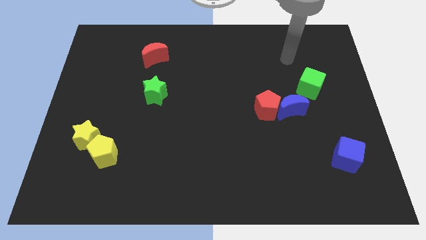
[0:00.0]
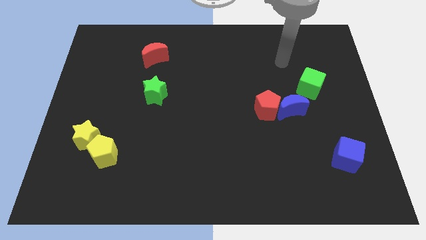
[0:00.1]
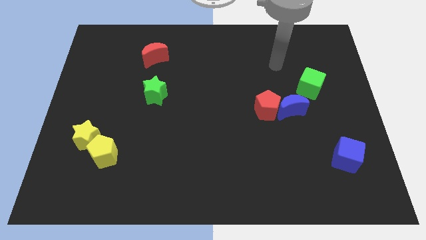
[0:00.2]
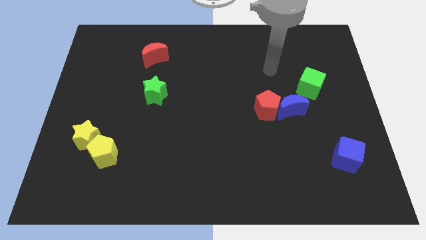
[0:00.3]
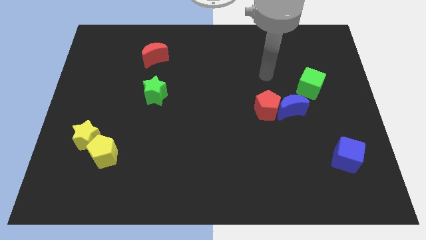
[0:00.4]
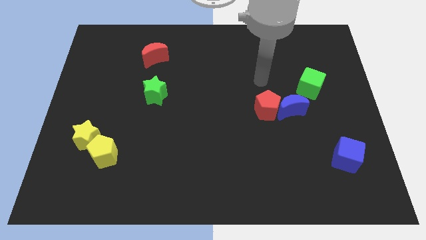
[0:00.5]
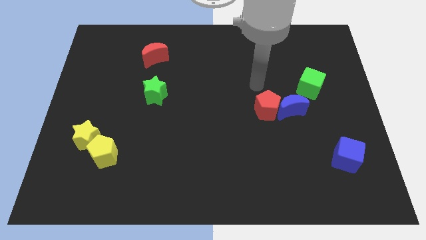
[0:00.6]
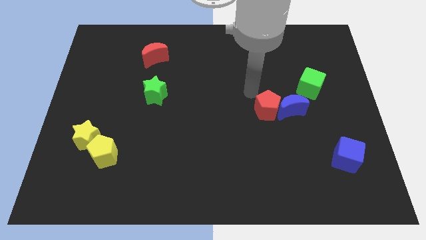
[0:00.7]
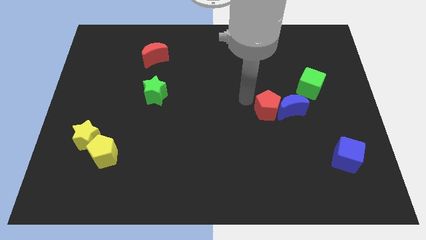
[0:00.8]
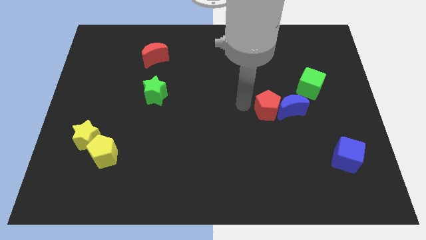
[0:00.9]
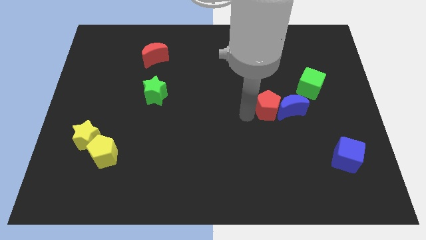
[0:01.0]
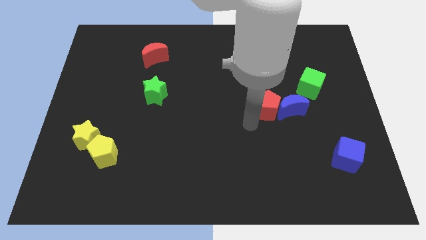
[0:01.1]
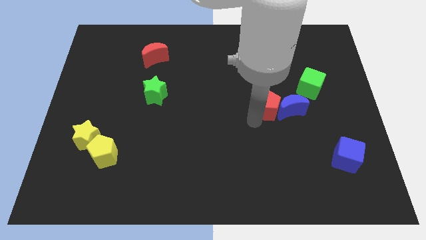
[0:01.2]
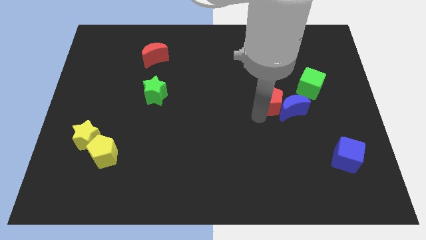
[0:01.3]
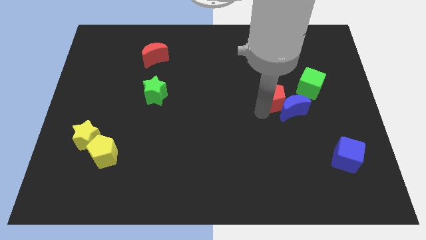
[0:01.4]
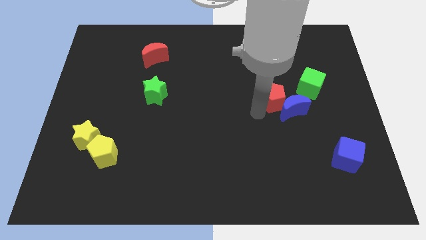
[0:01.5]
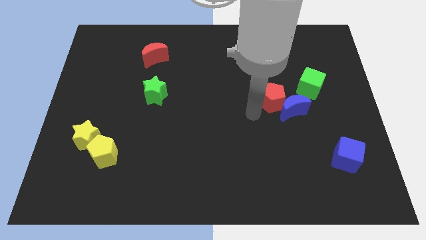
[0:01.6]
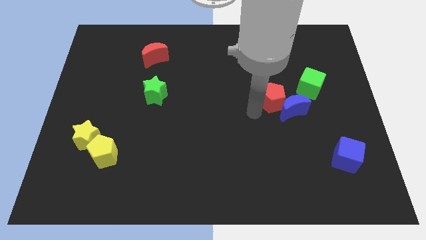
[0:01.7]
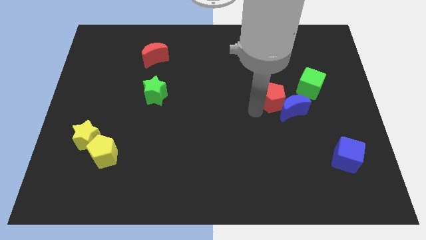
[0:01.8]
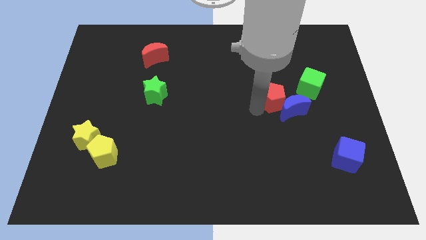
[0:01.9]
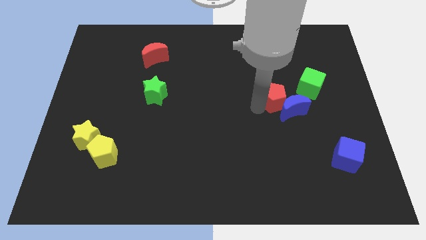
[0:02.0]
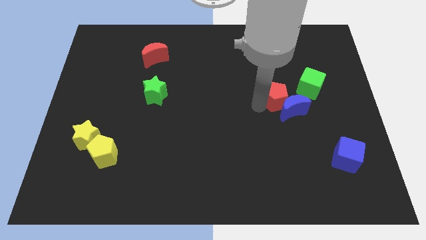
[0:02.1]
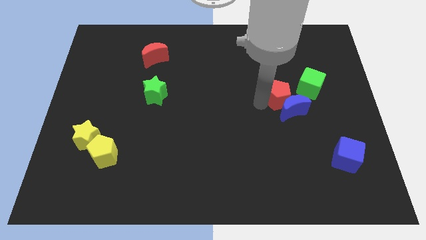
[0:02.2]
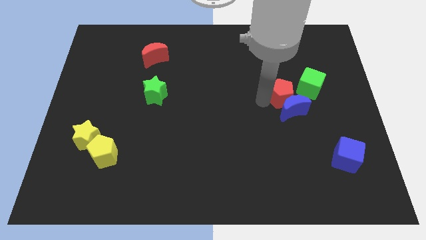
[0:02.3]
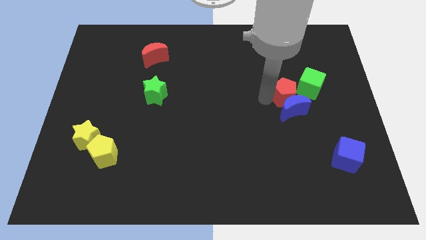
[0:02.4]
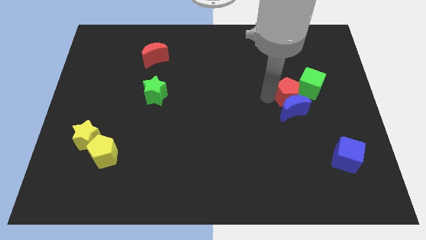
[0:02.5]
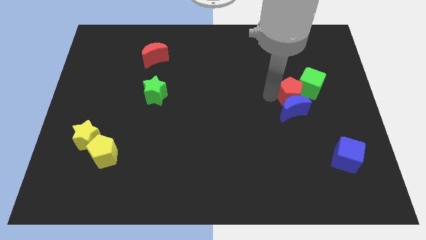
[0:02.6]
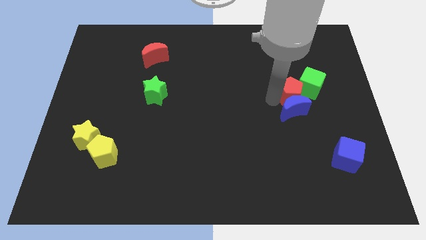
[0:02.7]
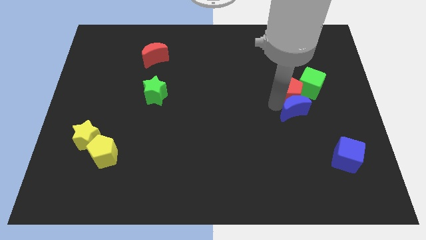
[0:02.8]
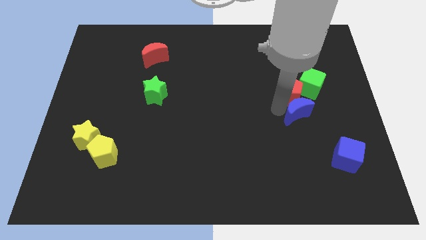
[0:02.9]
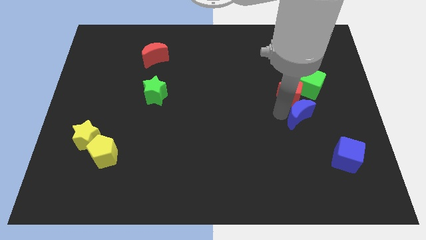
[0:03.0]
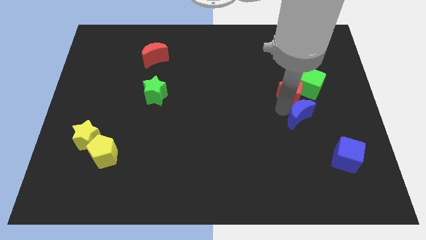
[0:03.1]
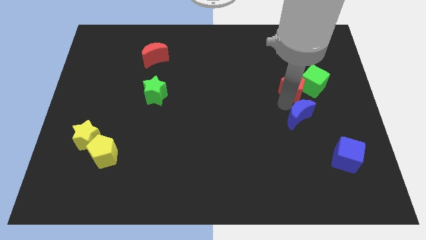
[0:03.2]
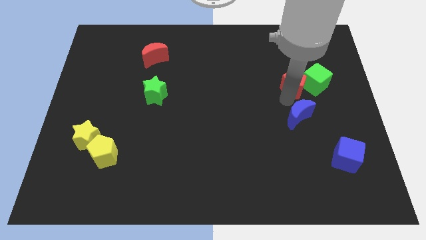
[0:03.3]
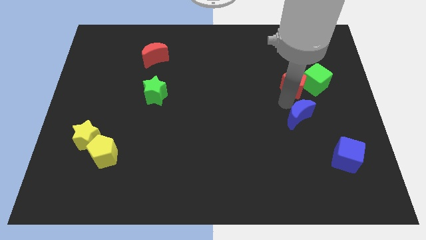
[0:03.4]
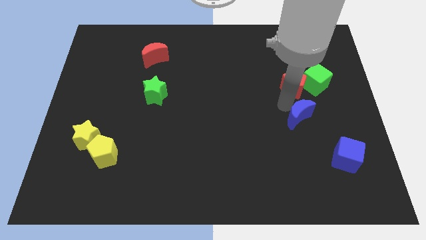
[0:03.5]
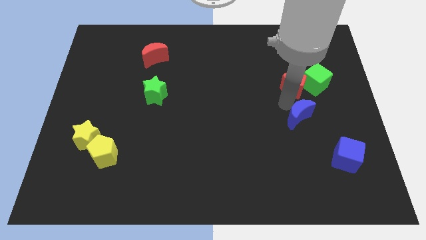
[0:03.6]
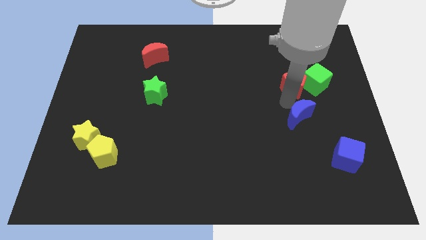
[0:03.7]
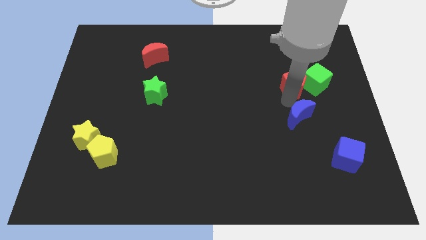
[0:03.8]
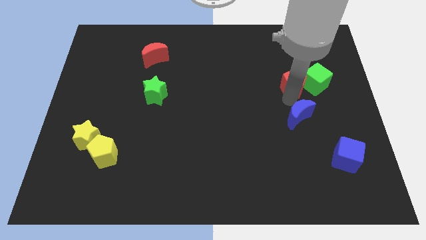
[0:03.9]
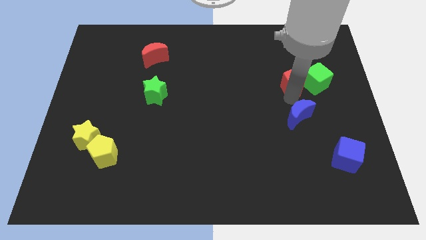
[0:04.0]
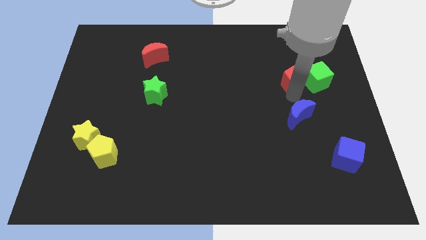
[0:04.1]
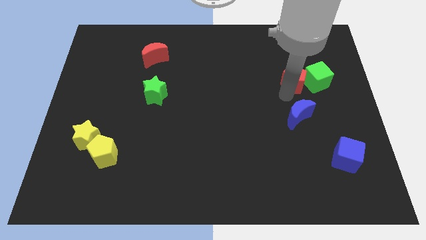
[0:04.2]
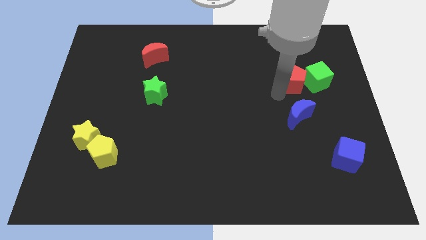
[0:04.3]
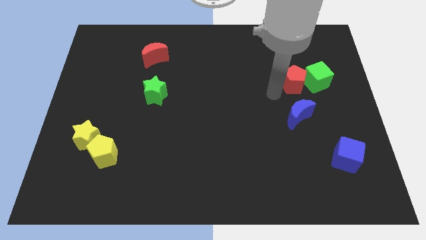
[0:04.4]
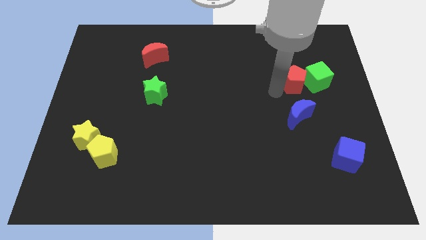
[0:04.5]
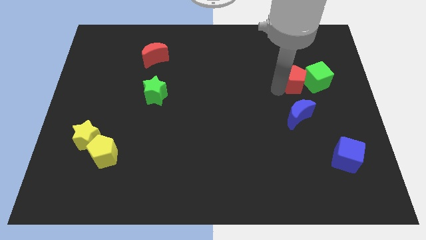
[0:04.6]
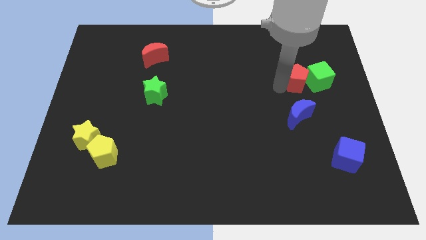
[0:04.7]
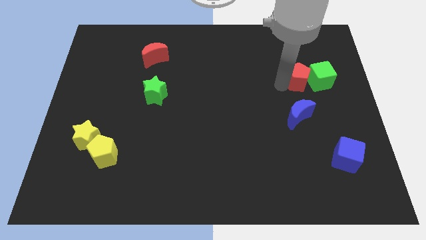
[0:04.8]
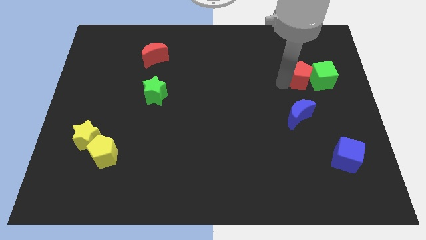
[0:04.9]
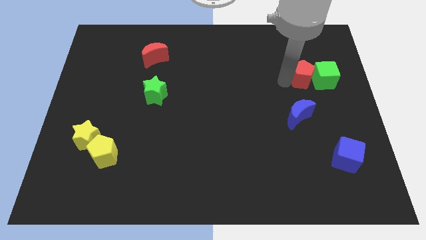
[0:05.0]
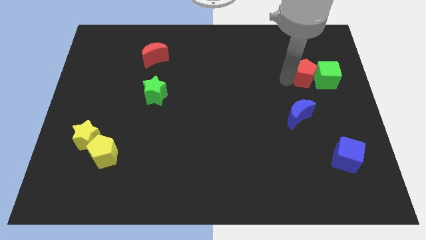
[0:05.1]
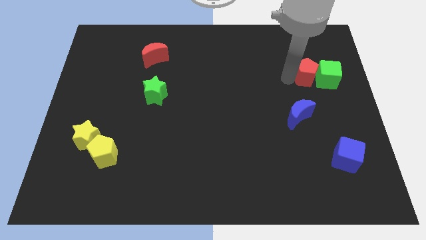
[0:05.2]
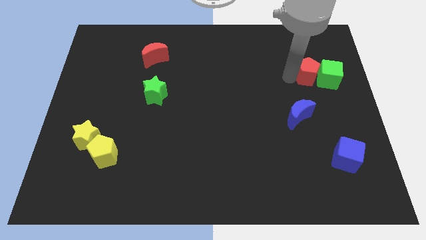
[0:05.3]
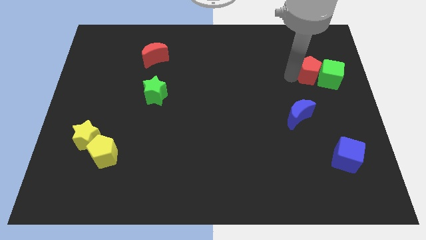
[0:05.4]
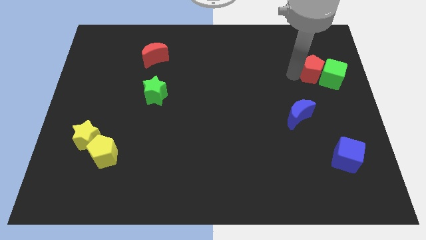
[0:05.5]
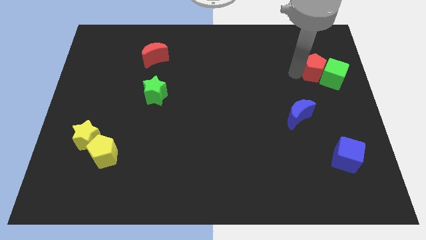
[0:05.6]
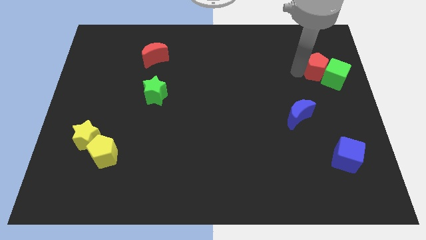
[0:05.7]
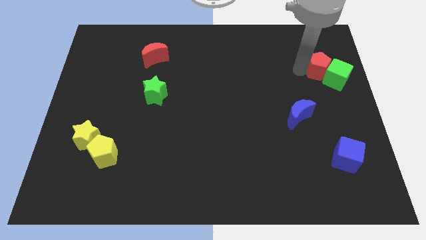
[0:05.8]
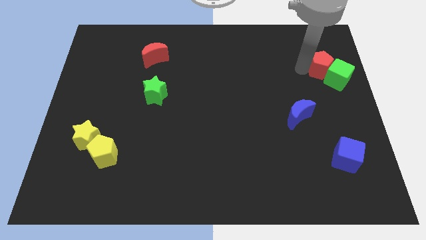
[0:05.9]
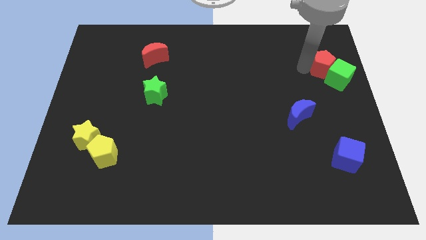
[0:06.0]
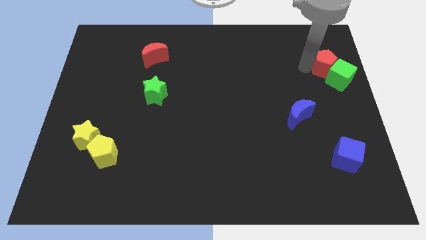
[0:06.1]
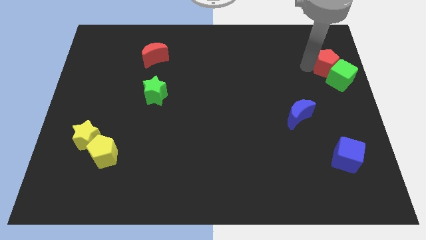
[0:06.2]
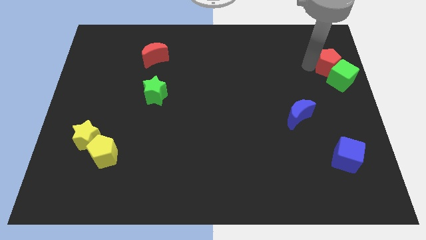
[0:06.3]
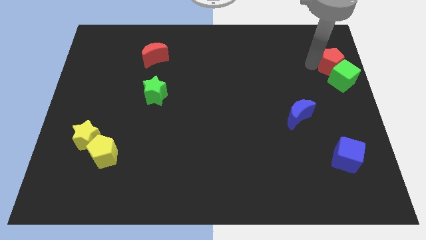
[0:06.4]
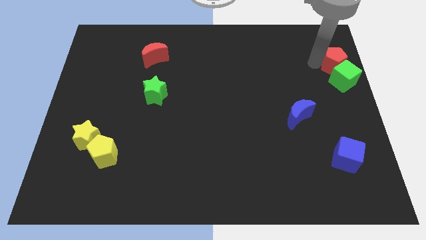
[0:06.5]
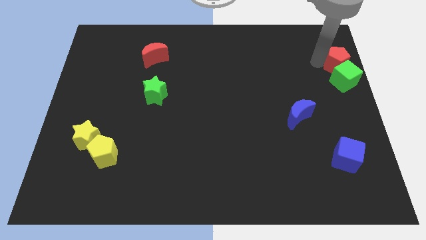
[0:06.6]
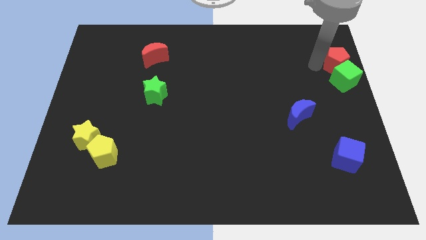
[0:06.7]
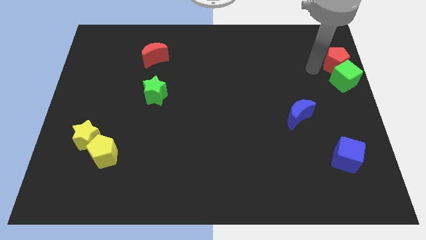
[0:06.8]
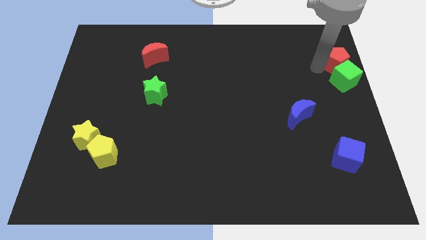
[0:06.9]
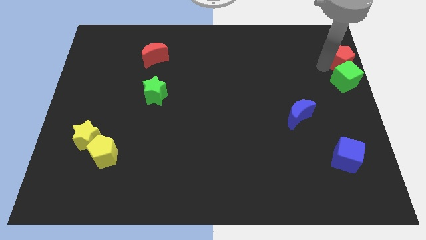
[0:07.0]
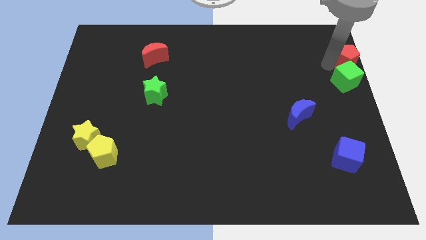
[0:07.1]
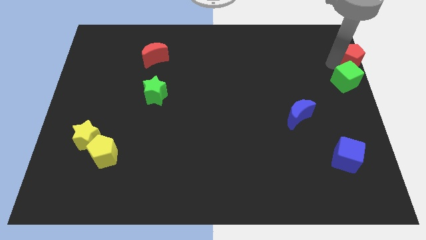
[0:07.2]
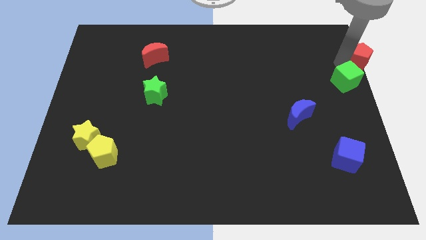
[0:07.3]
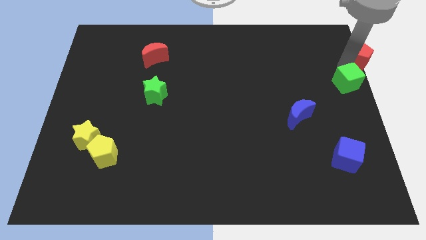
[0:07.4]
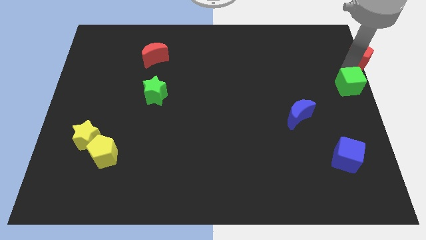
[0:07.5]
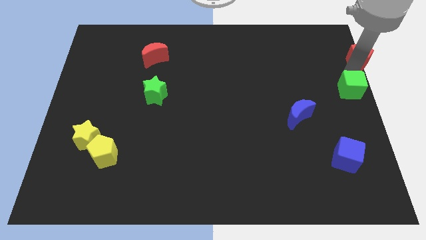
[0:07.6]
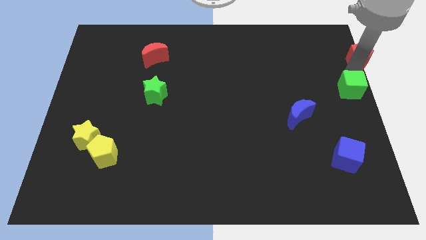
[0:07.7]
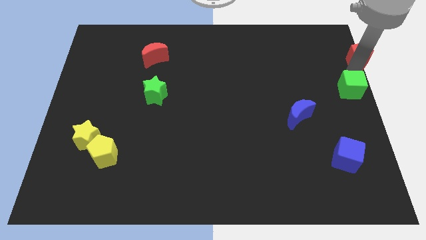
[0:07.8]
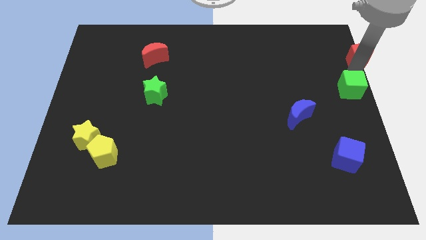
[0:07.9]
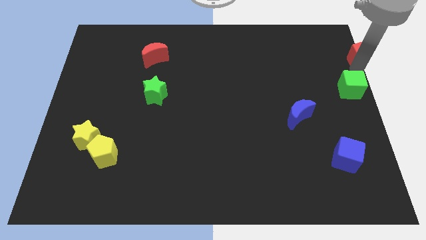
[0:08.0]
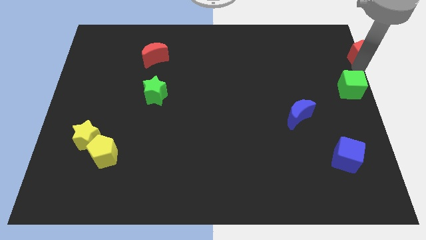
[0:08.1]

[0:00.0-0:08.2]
push the red pentagon to the top right of the board
